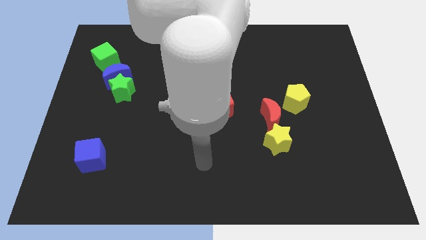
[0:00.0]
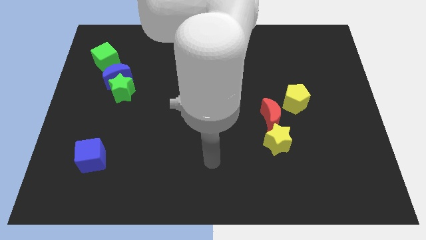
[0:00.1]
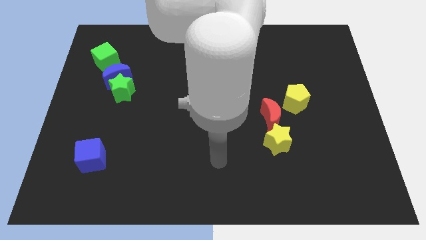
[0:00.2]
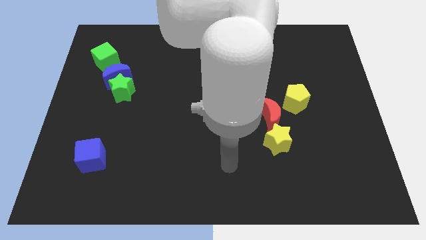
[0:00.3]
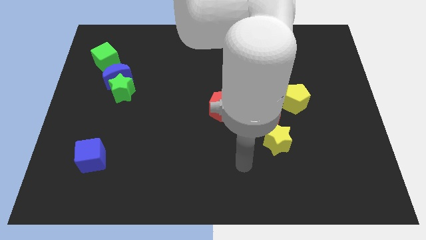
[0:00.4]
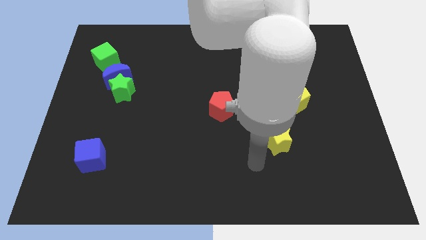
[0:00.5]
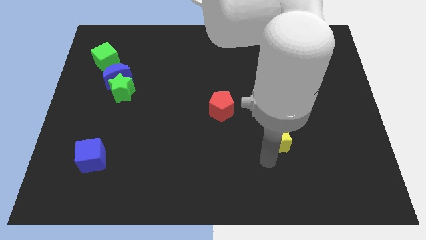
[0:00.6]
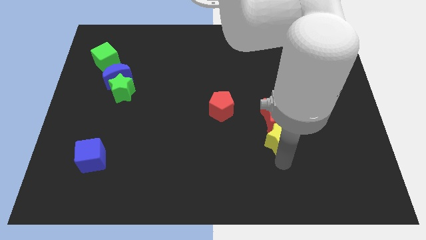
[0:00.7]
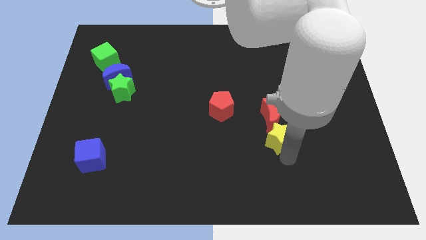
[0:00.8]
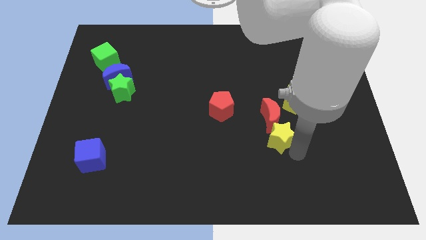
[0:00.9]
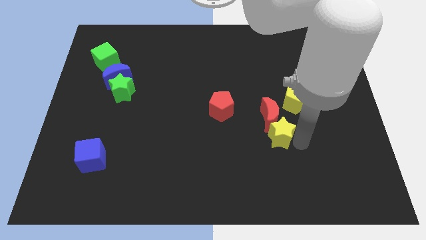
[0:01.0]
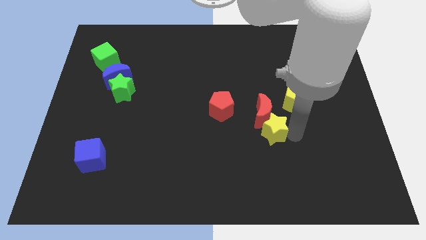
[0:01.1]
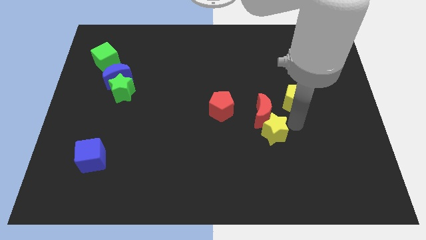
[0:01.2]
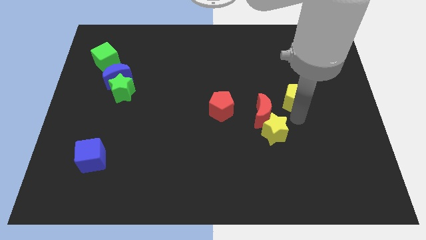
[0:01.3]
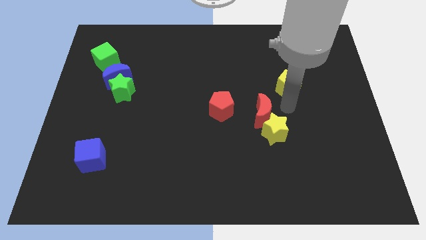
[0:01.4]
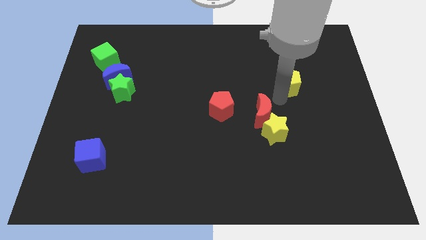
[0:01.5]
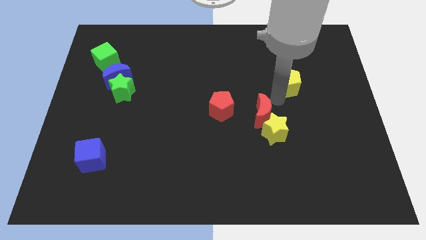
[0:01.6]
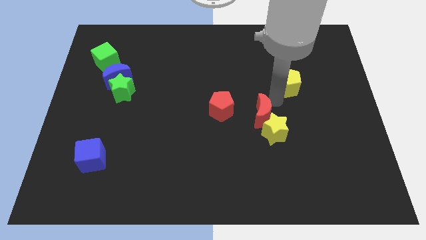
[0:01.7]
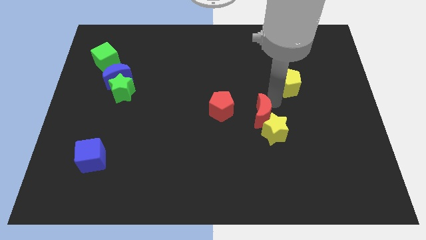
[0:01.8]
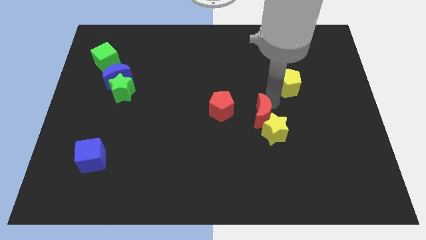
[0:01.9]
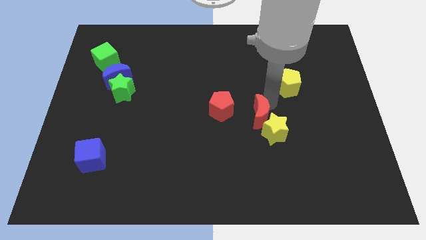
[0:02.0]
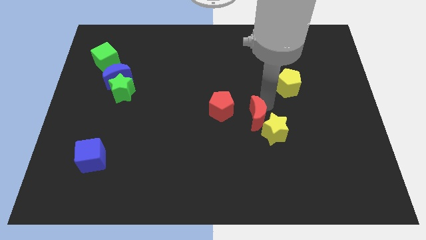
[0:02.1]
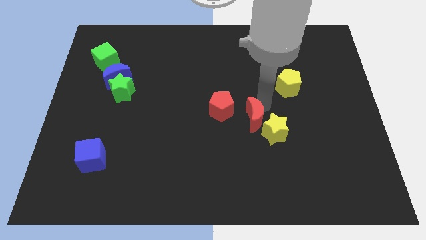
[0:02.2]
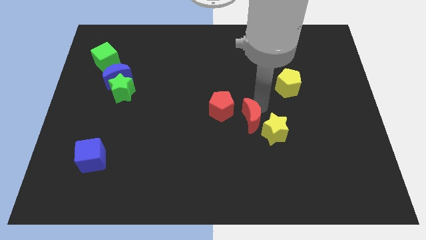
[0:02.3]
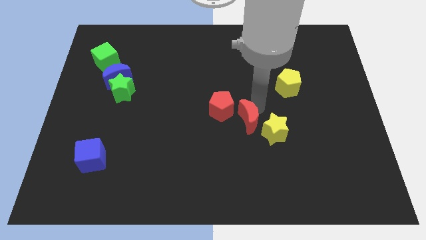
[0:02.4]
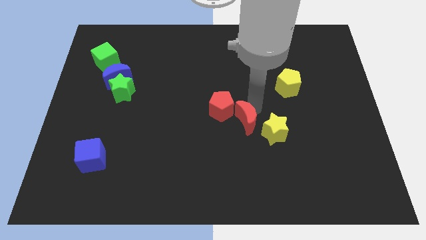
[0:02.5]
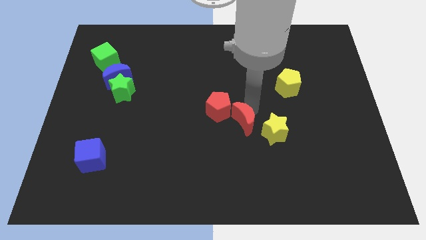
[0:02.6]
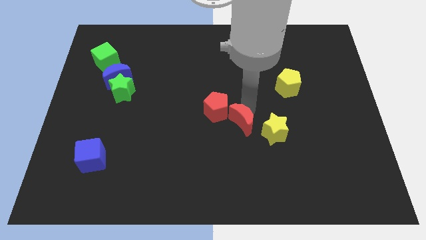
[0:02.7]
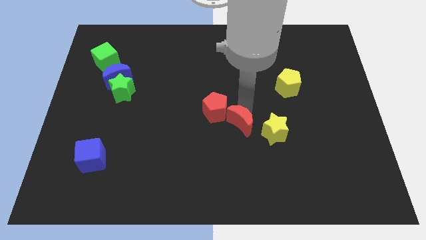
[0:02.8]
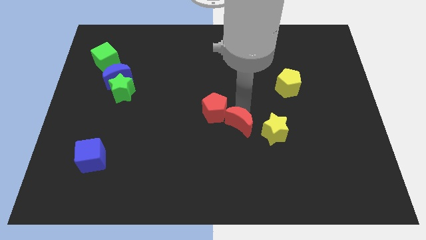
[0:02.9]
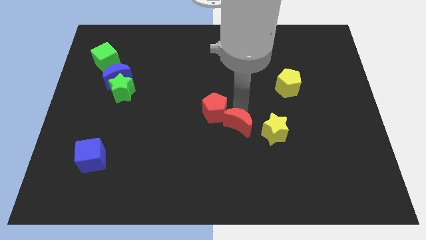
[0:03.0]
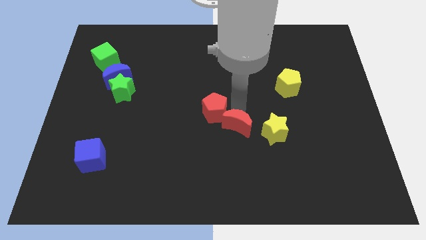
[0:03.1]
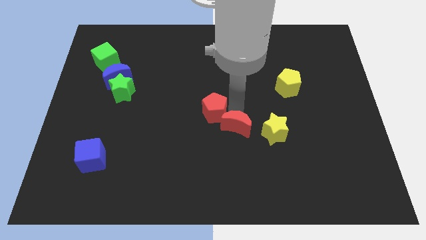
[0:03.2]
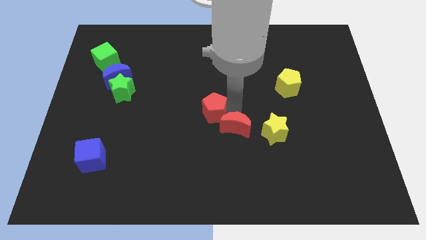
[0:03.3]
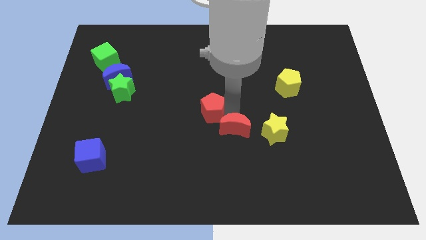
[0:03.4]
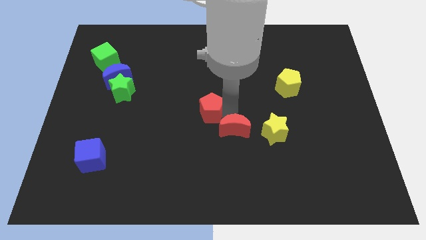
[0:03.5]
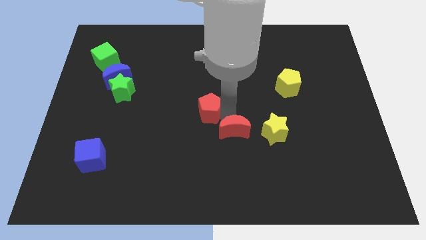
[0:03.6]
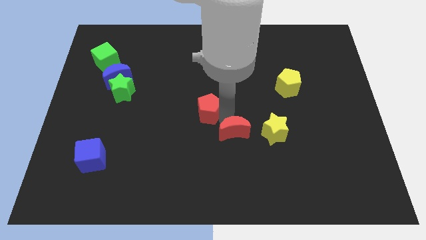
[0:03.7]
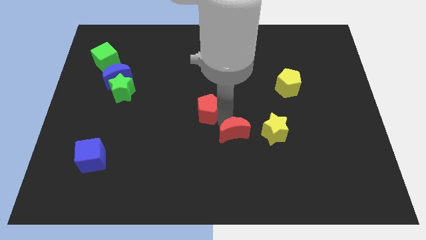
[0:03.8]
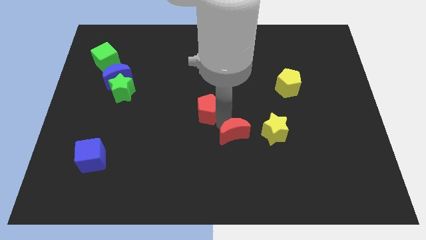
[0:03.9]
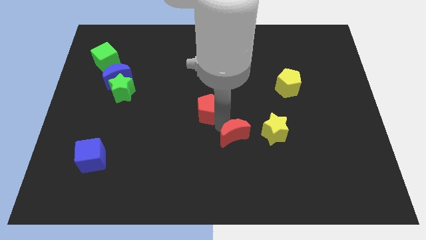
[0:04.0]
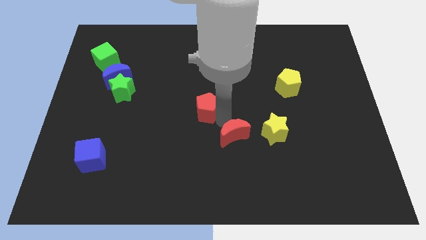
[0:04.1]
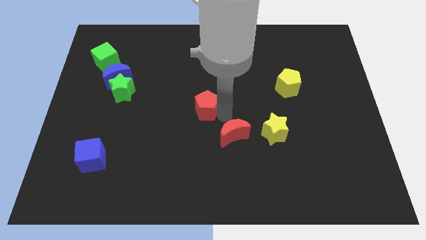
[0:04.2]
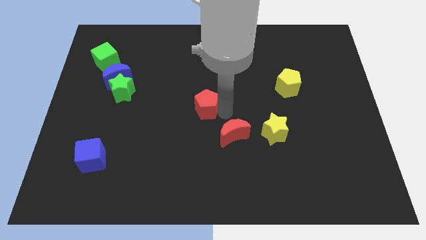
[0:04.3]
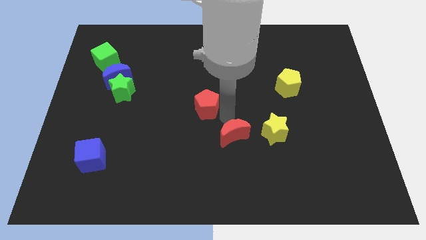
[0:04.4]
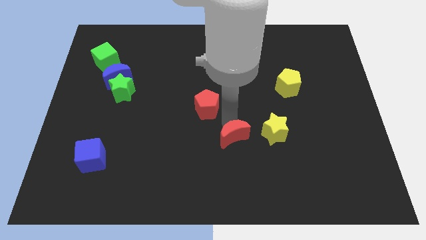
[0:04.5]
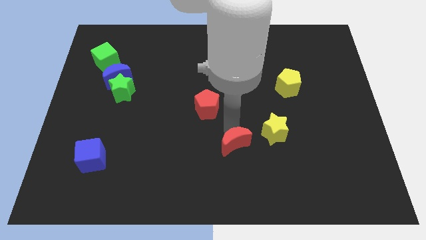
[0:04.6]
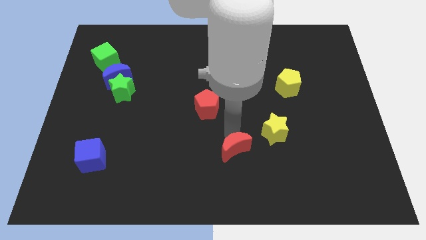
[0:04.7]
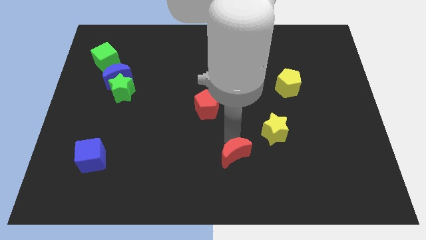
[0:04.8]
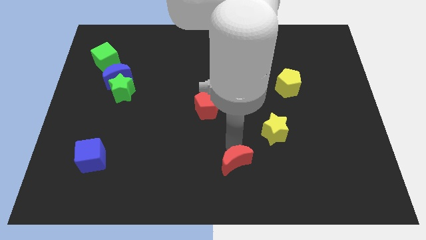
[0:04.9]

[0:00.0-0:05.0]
put the red moon to the bottom

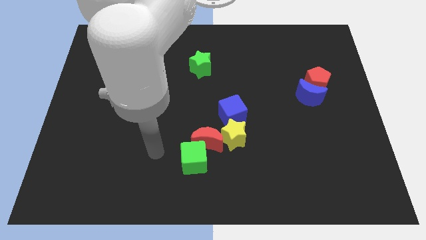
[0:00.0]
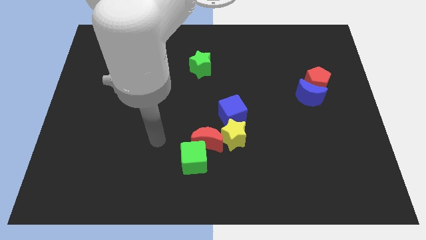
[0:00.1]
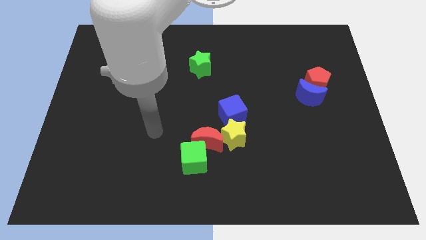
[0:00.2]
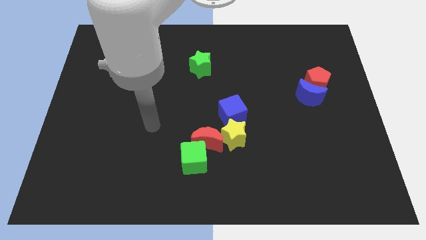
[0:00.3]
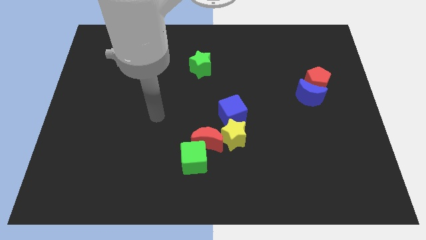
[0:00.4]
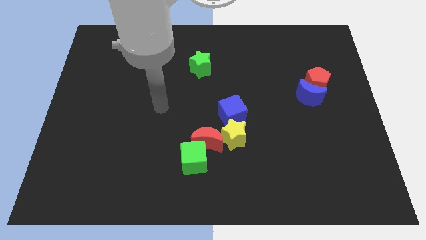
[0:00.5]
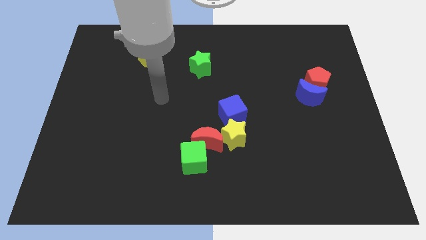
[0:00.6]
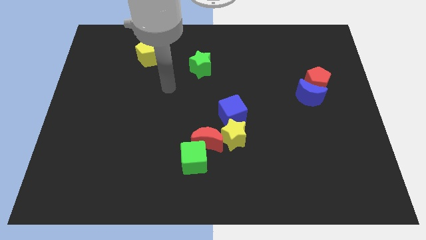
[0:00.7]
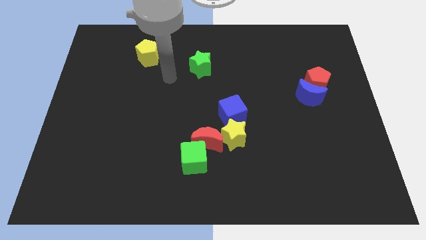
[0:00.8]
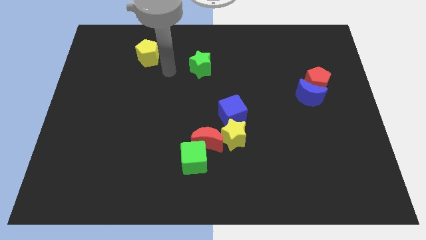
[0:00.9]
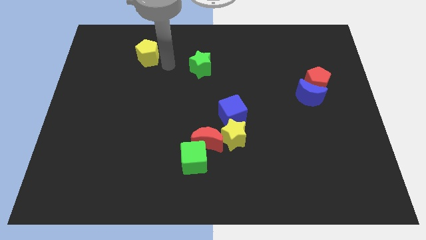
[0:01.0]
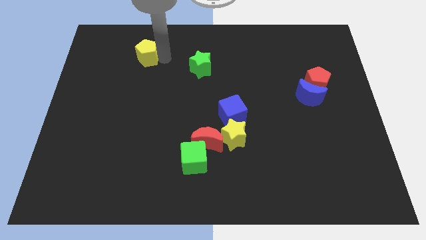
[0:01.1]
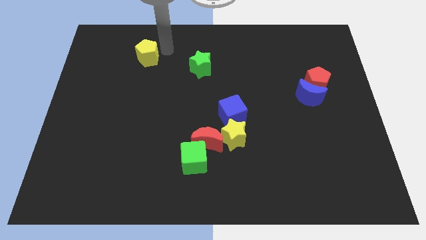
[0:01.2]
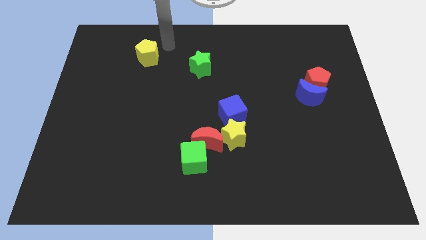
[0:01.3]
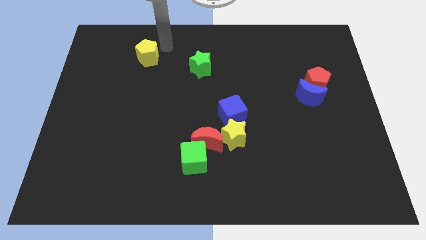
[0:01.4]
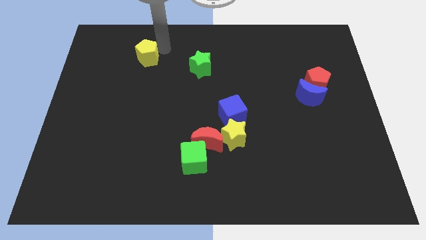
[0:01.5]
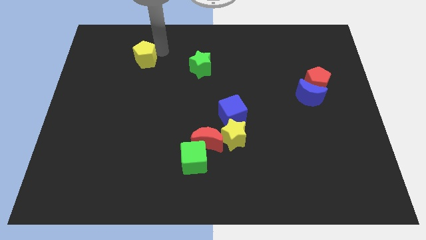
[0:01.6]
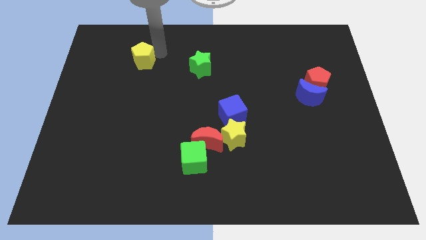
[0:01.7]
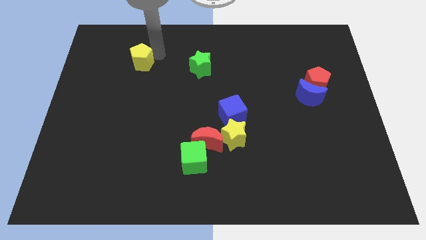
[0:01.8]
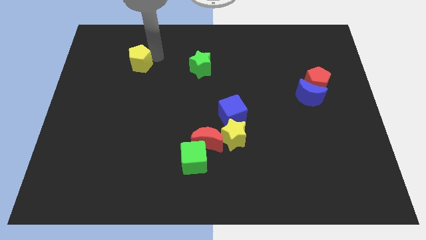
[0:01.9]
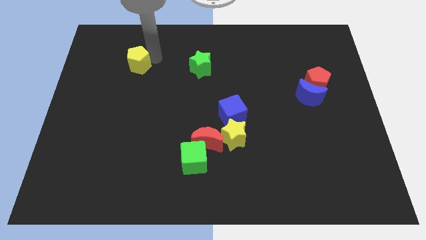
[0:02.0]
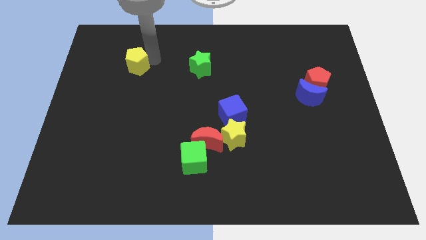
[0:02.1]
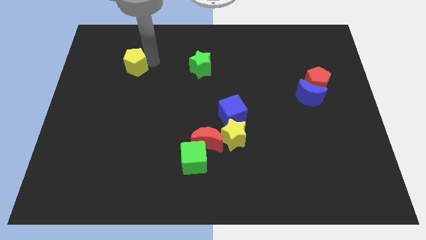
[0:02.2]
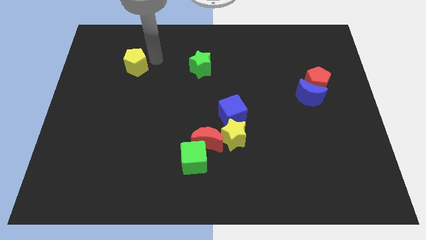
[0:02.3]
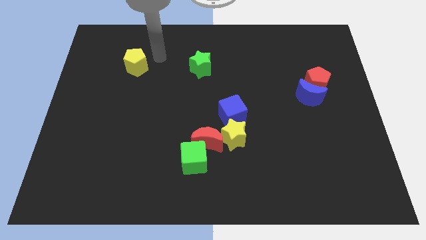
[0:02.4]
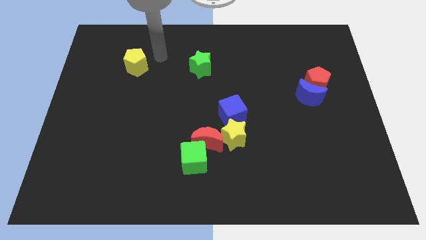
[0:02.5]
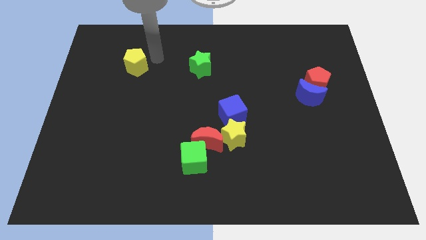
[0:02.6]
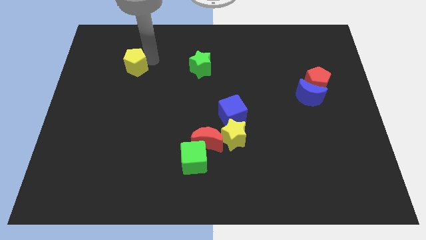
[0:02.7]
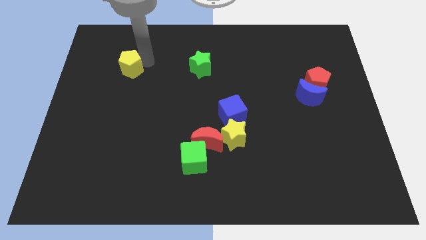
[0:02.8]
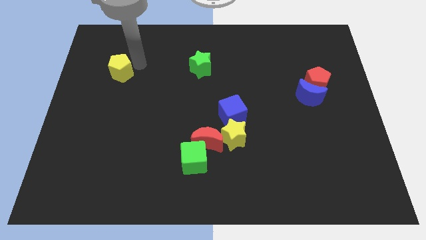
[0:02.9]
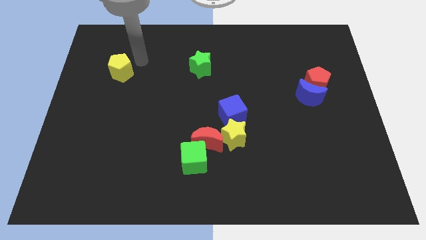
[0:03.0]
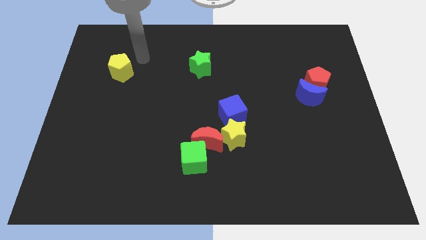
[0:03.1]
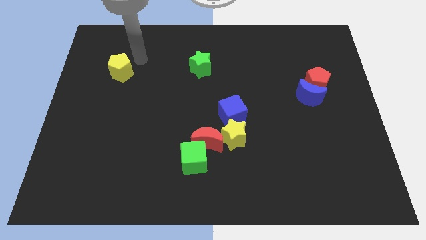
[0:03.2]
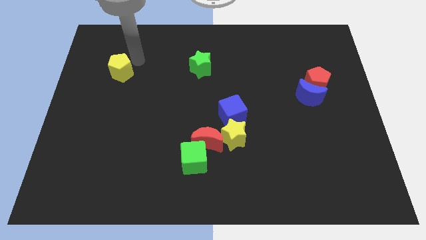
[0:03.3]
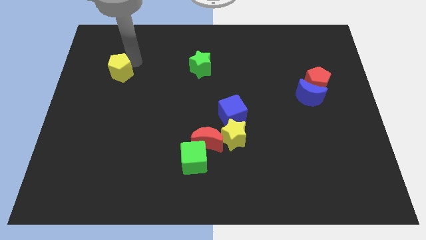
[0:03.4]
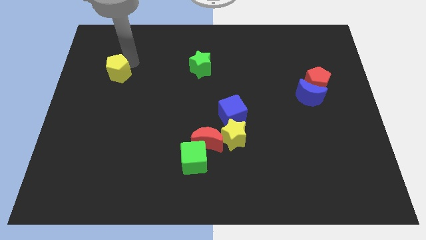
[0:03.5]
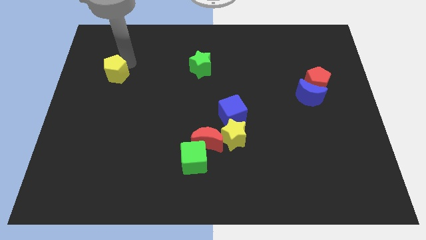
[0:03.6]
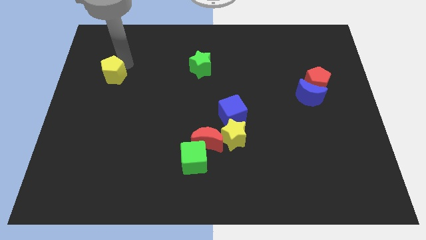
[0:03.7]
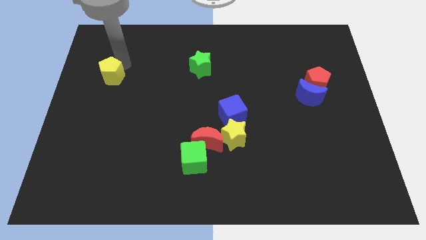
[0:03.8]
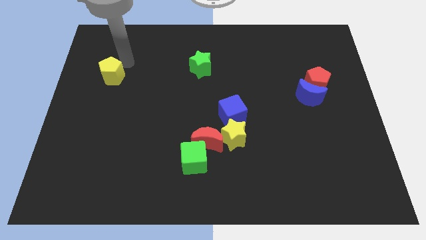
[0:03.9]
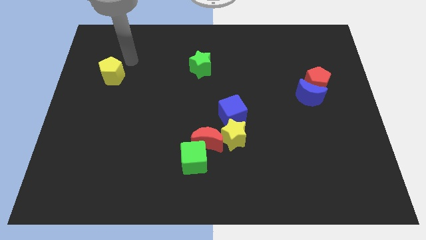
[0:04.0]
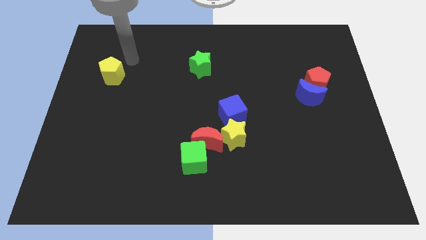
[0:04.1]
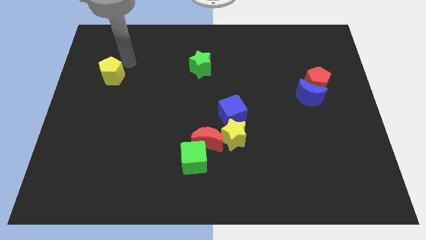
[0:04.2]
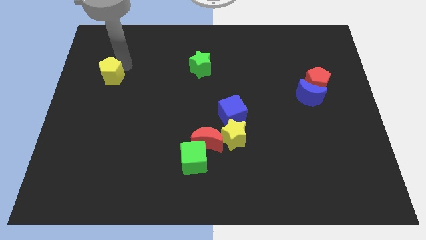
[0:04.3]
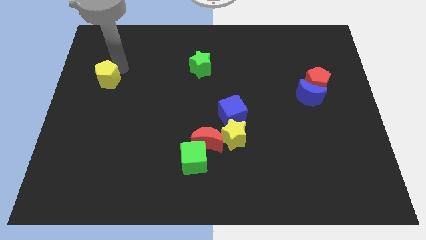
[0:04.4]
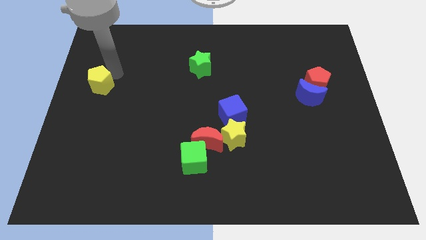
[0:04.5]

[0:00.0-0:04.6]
put the yellow pentagon to the center left
